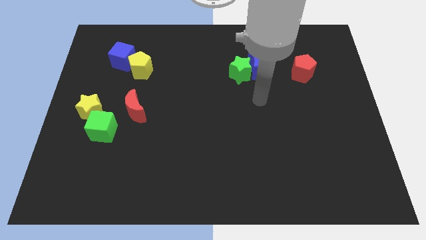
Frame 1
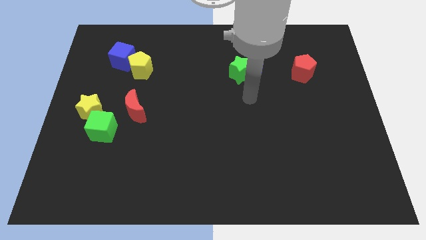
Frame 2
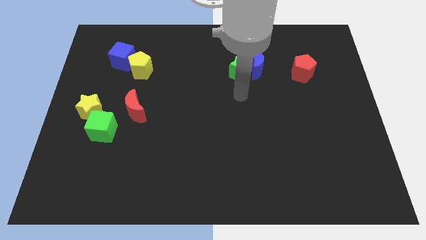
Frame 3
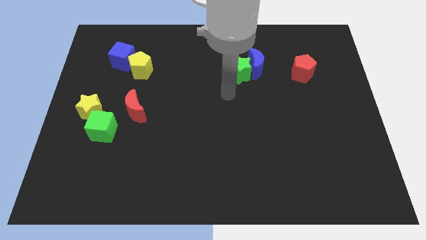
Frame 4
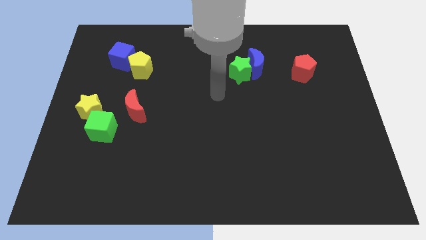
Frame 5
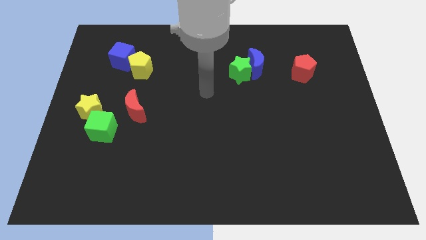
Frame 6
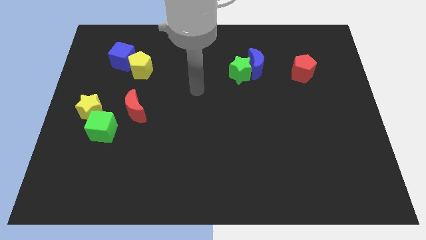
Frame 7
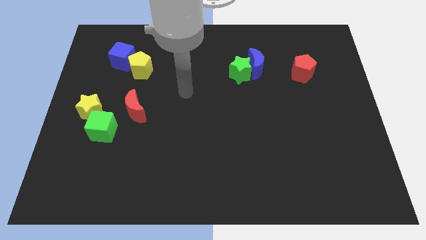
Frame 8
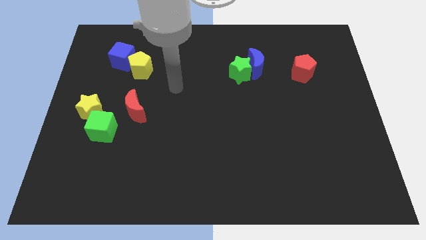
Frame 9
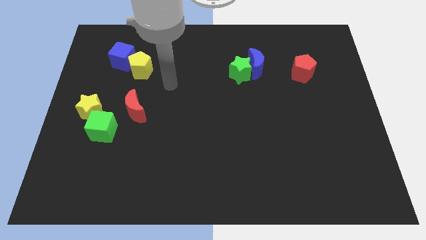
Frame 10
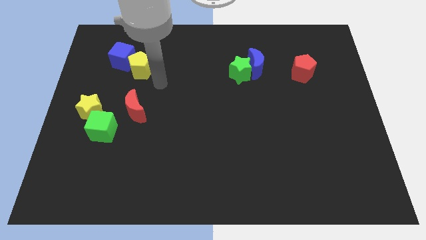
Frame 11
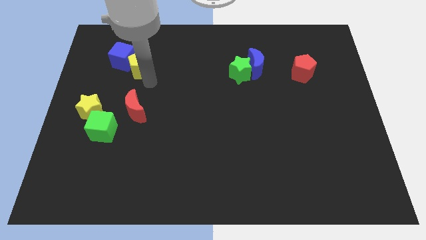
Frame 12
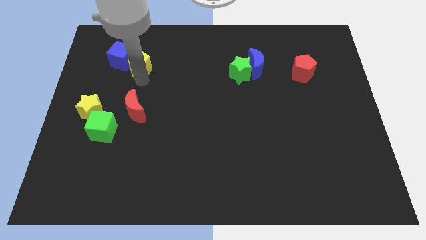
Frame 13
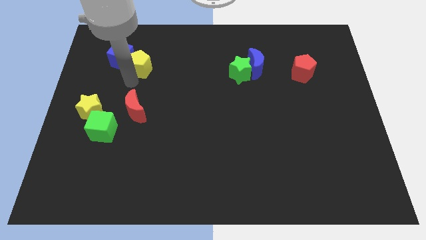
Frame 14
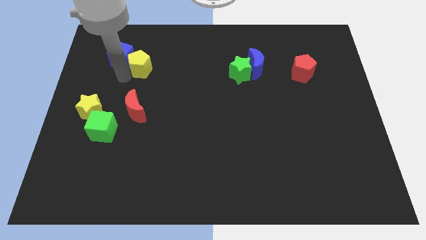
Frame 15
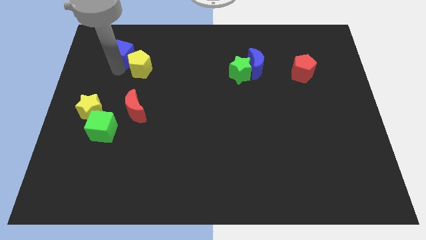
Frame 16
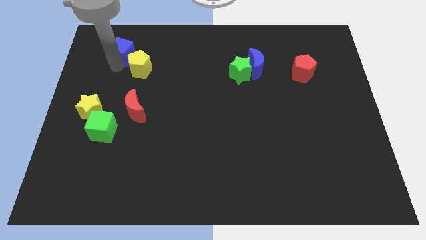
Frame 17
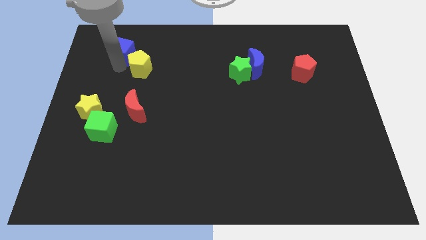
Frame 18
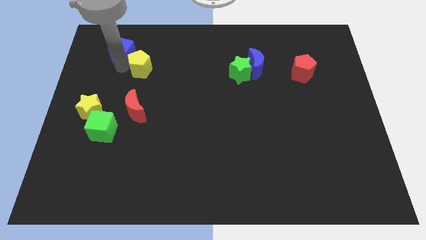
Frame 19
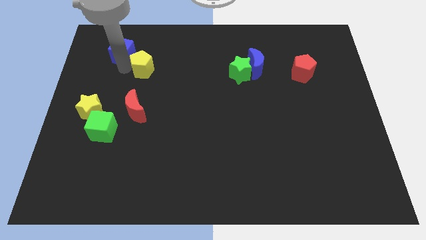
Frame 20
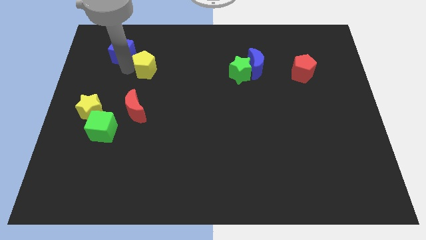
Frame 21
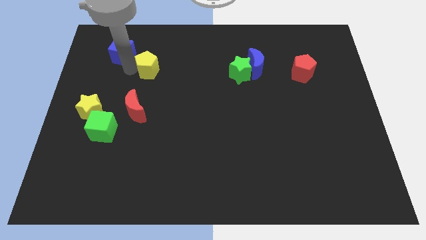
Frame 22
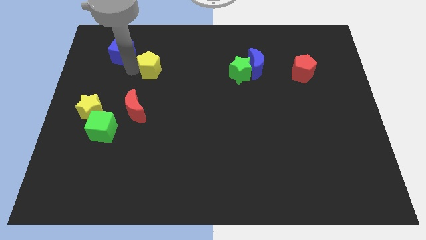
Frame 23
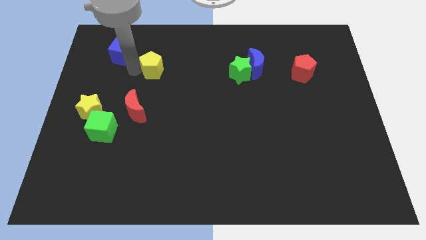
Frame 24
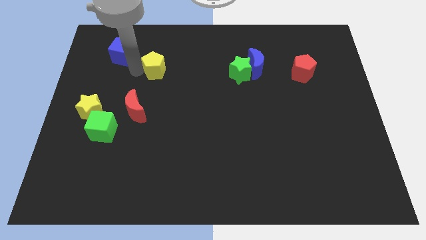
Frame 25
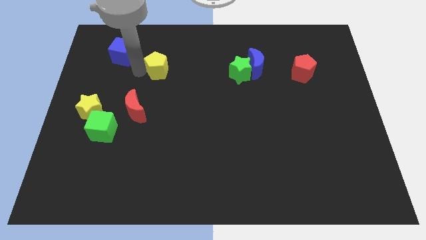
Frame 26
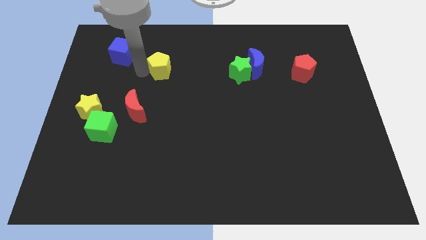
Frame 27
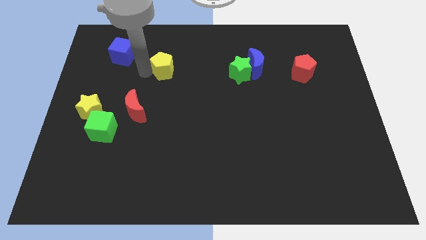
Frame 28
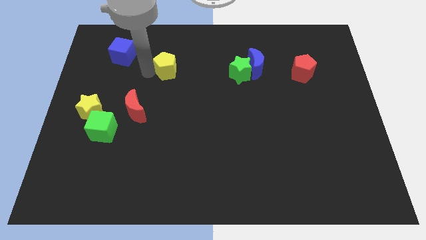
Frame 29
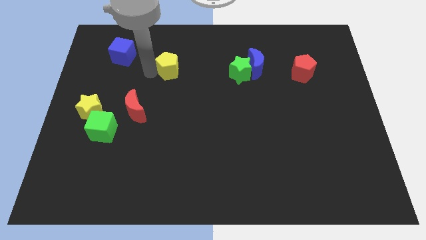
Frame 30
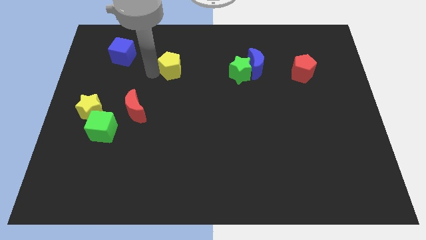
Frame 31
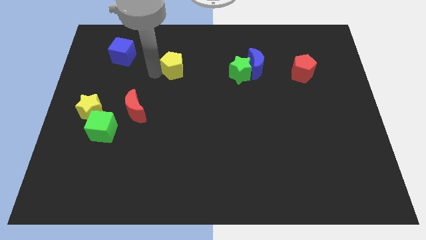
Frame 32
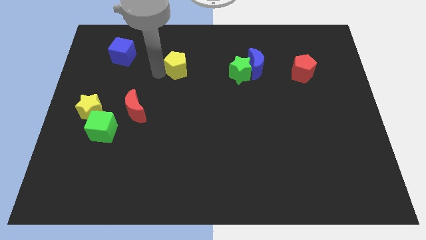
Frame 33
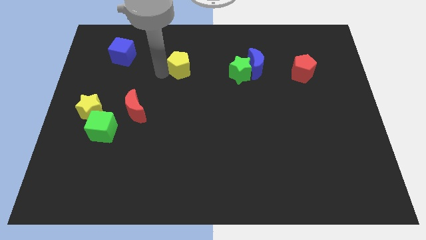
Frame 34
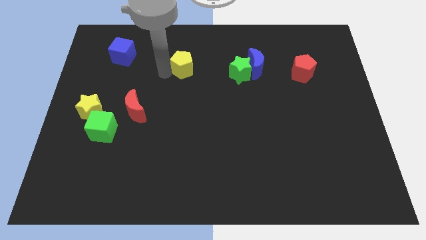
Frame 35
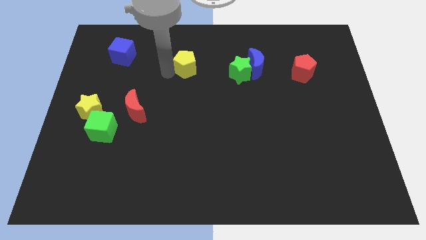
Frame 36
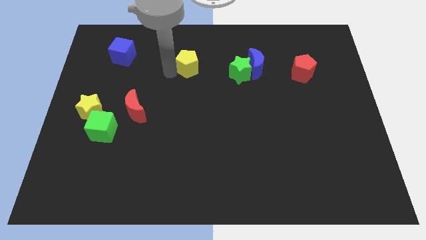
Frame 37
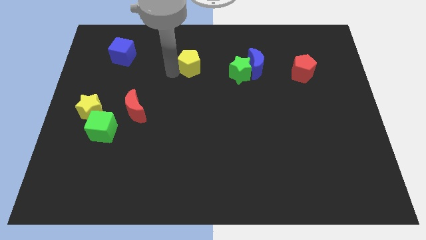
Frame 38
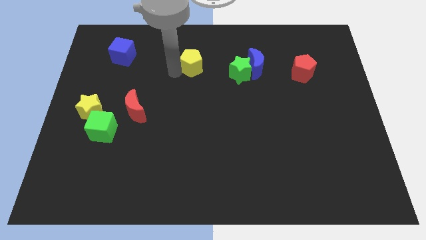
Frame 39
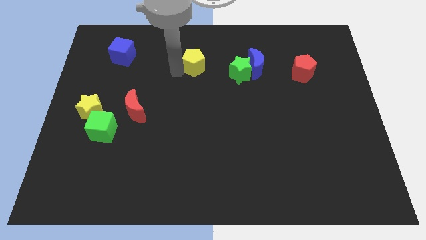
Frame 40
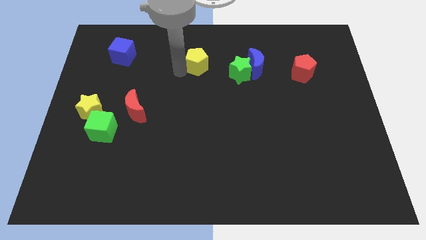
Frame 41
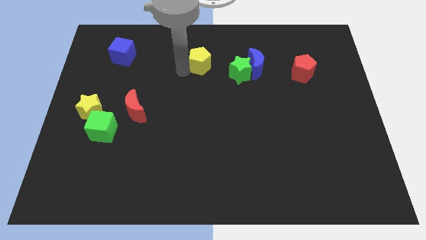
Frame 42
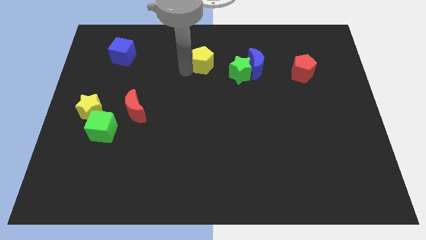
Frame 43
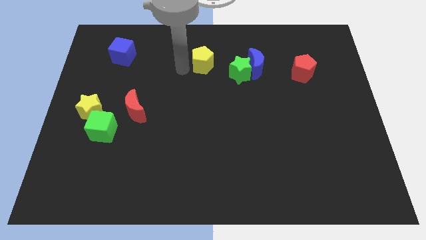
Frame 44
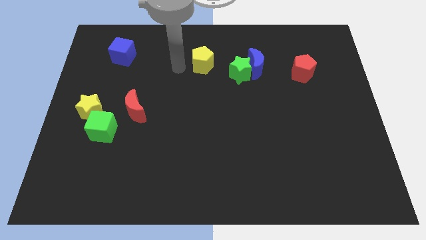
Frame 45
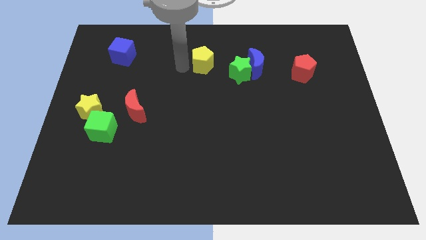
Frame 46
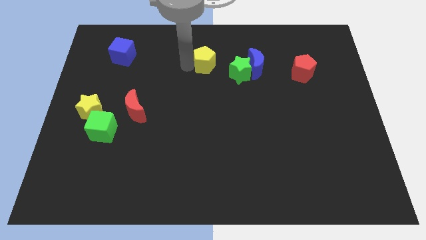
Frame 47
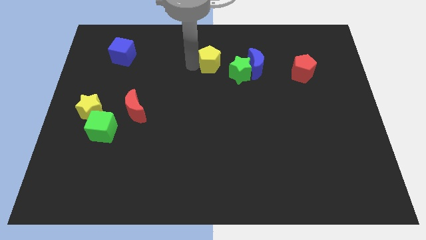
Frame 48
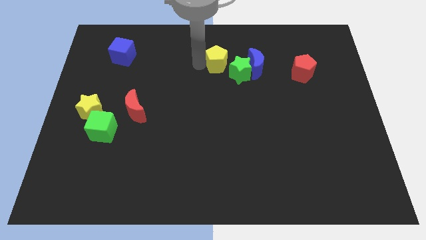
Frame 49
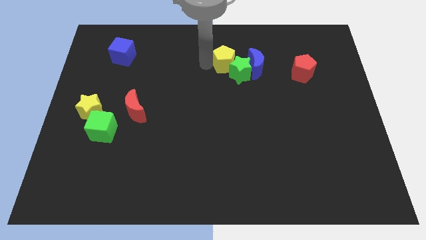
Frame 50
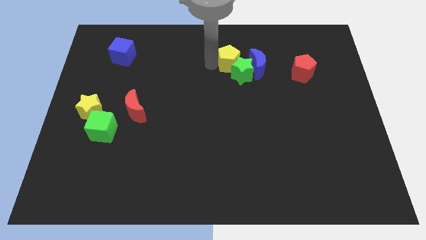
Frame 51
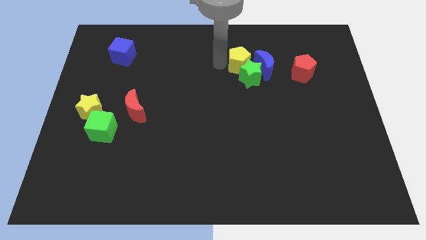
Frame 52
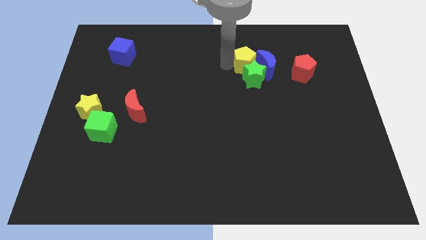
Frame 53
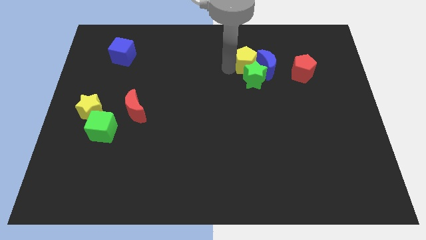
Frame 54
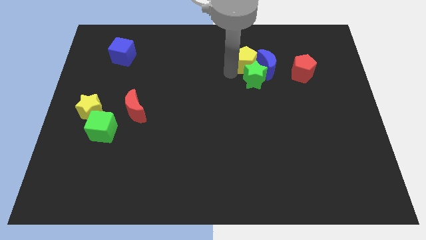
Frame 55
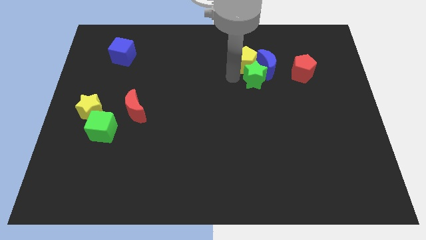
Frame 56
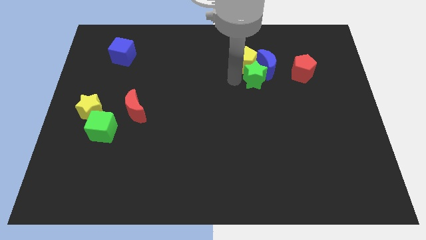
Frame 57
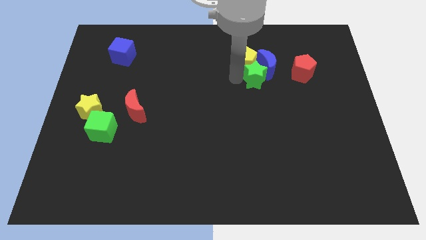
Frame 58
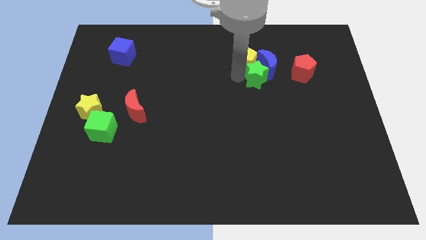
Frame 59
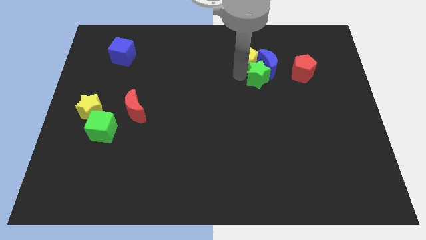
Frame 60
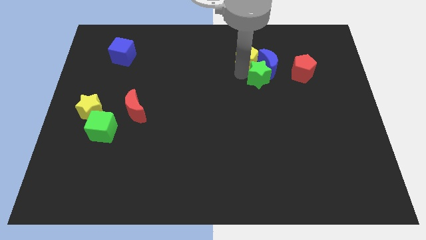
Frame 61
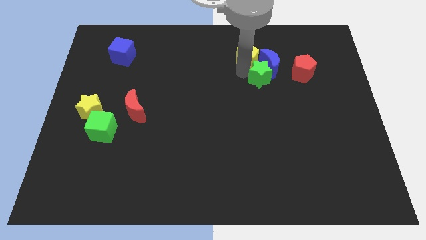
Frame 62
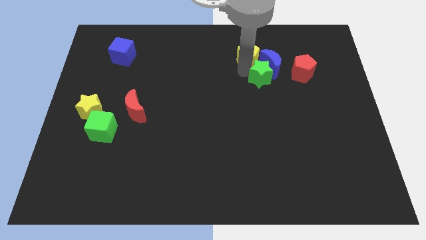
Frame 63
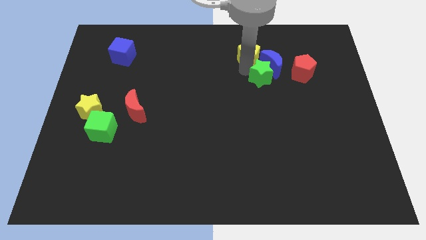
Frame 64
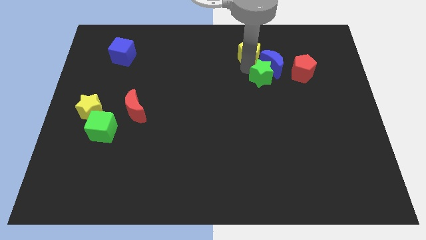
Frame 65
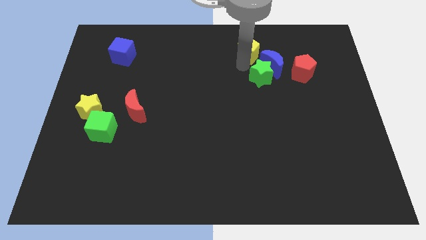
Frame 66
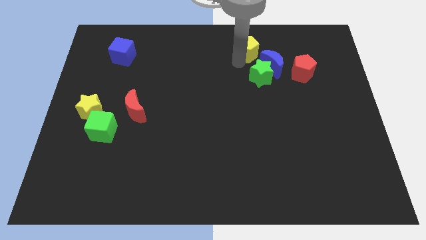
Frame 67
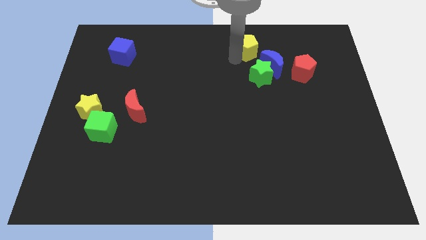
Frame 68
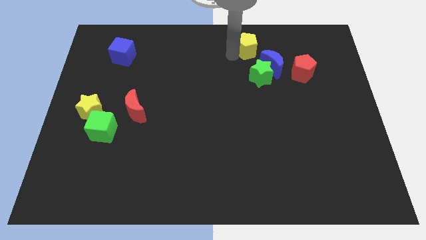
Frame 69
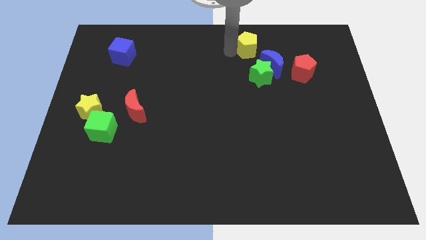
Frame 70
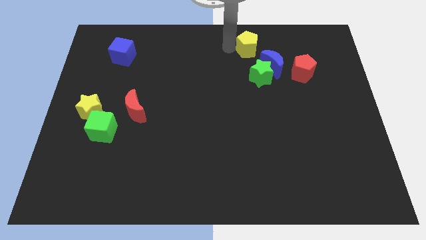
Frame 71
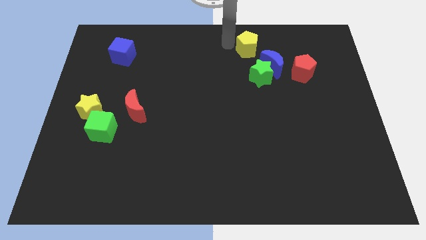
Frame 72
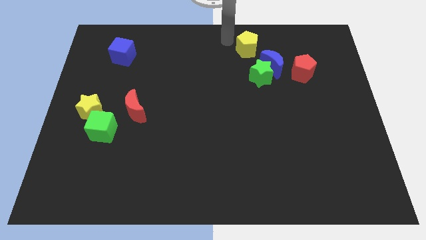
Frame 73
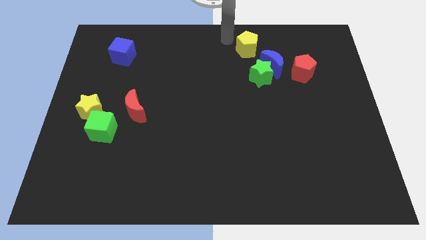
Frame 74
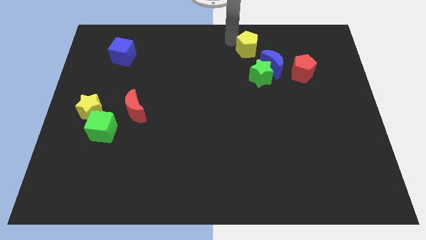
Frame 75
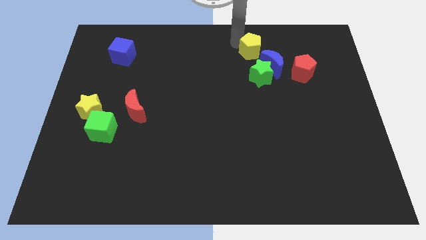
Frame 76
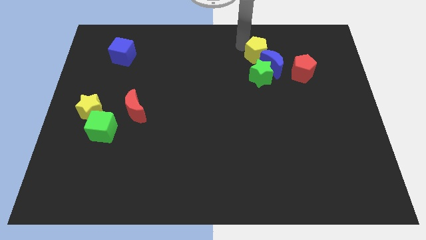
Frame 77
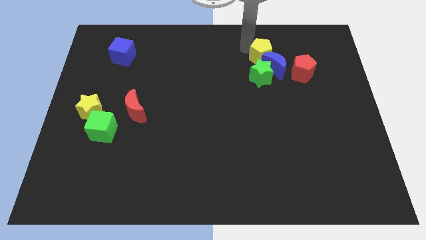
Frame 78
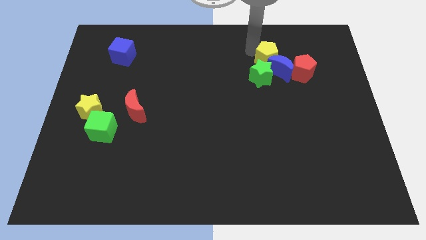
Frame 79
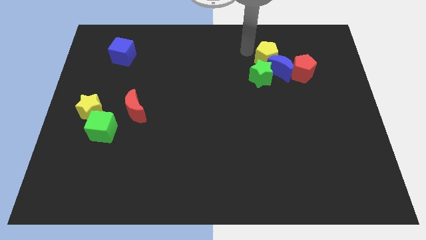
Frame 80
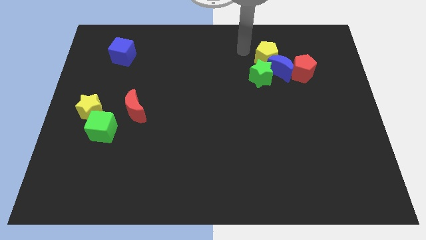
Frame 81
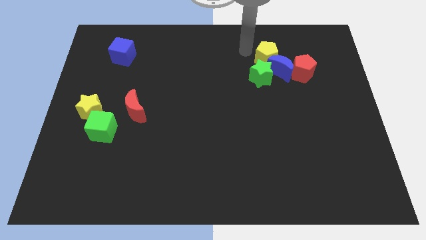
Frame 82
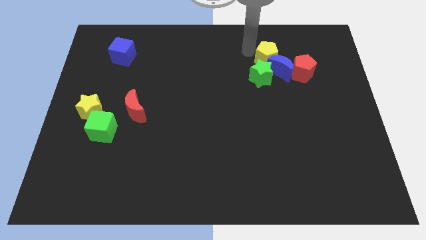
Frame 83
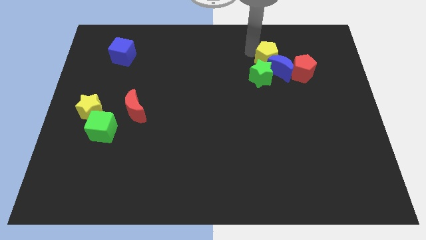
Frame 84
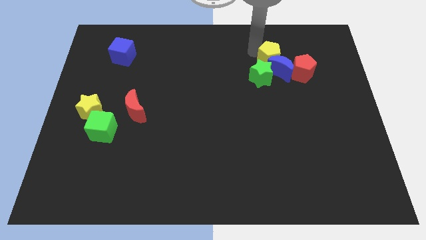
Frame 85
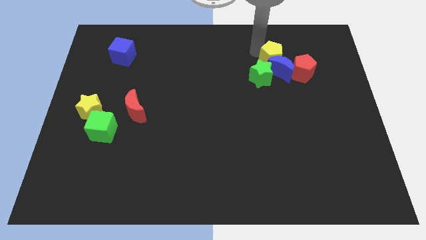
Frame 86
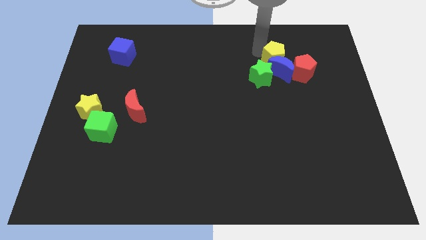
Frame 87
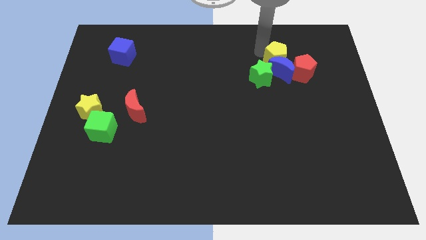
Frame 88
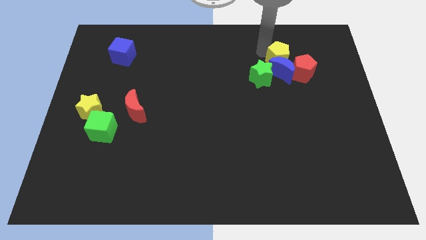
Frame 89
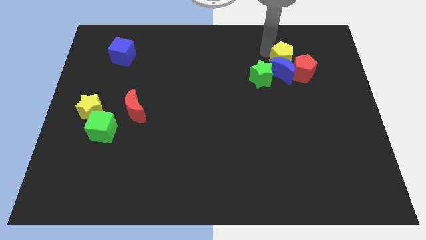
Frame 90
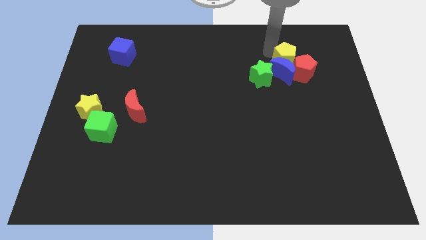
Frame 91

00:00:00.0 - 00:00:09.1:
push the yellow pentagon close to the red pentagon
